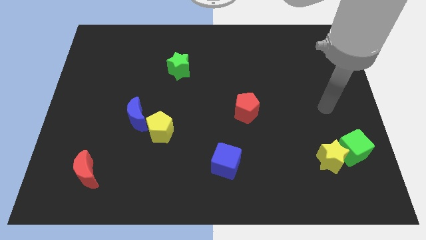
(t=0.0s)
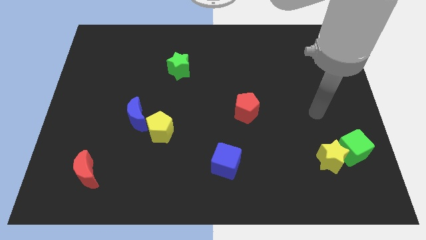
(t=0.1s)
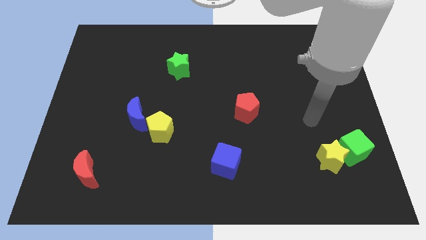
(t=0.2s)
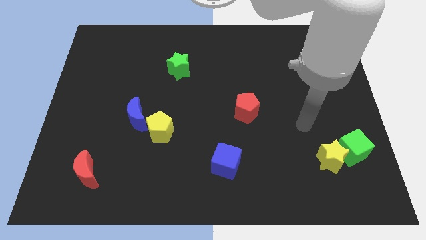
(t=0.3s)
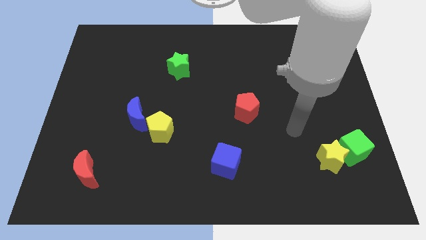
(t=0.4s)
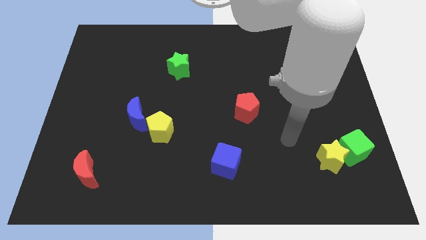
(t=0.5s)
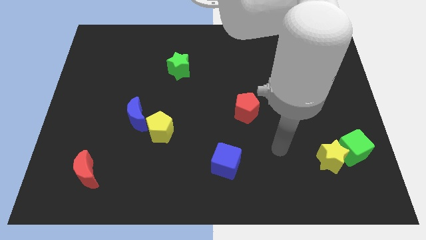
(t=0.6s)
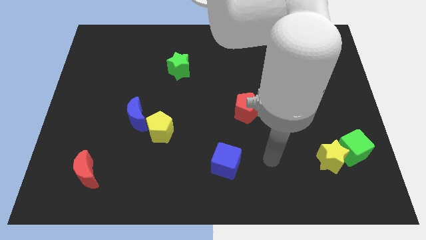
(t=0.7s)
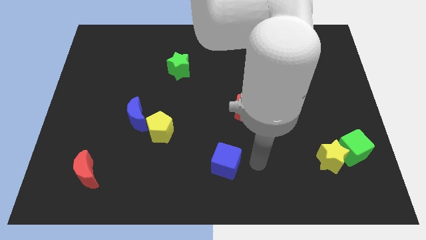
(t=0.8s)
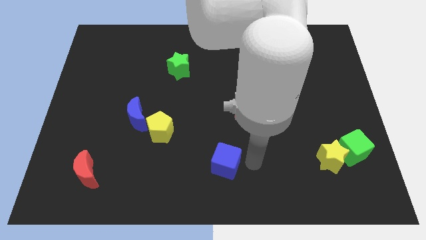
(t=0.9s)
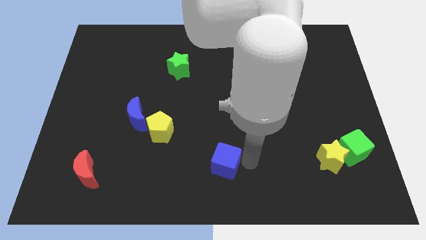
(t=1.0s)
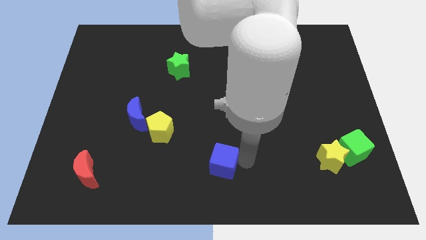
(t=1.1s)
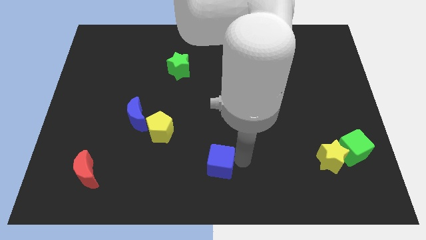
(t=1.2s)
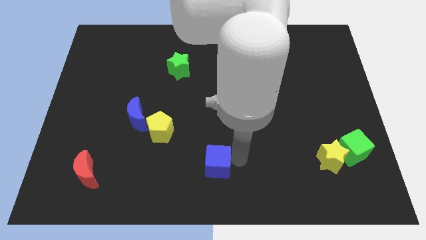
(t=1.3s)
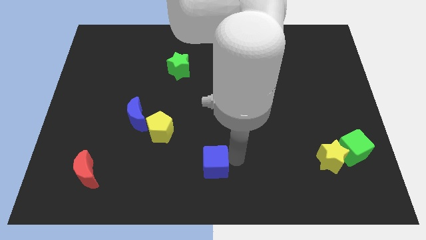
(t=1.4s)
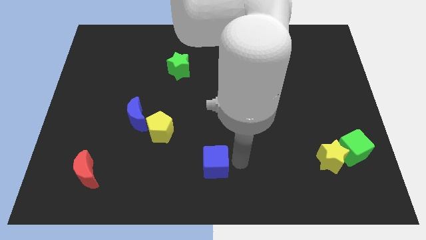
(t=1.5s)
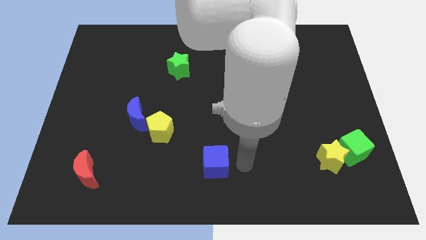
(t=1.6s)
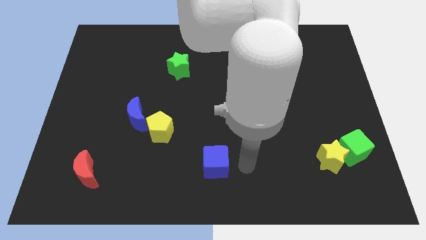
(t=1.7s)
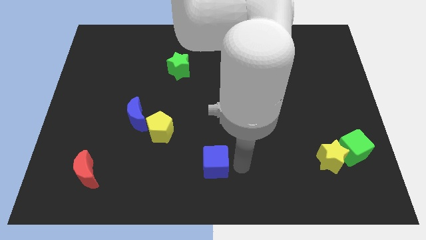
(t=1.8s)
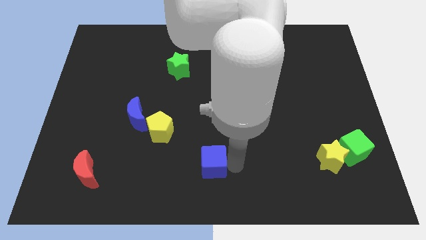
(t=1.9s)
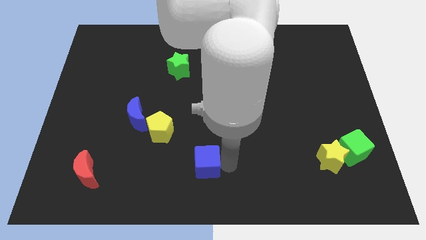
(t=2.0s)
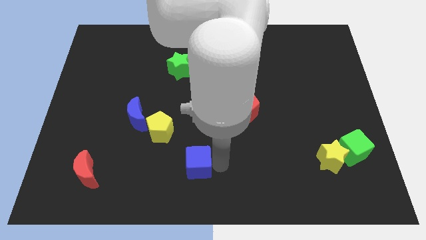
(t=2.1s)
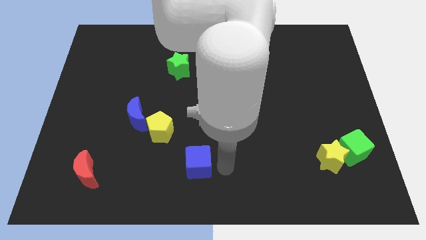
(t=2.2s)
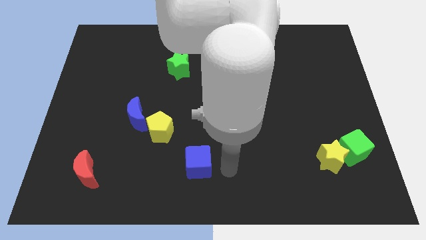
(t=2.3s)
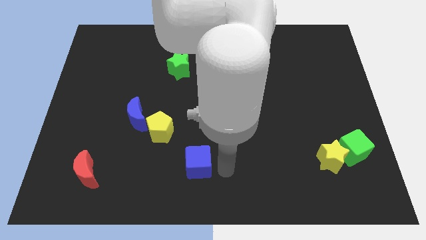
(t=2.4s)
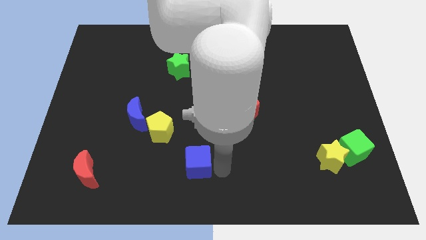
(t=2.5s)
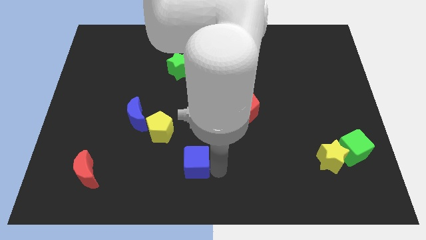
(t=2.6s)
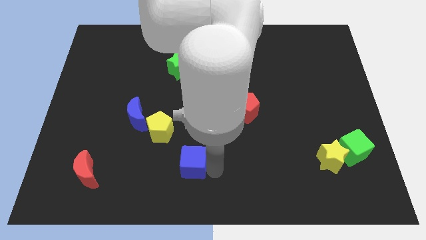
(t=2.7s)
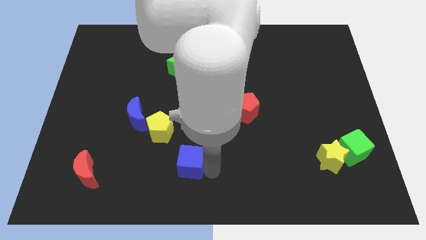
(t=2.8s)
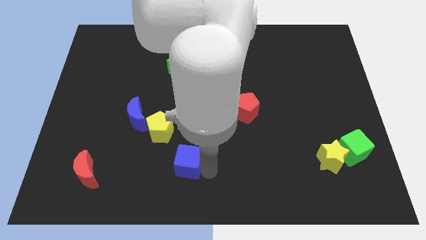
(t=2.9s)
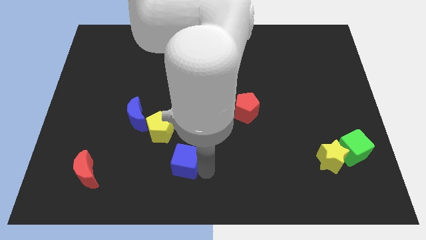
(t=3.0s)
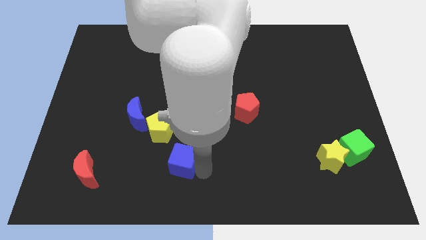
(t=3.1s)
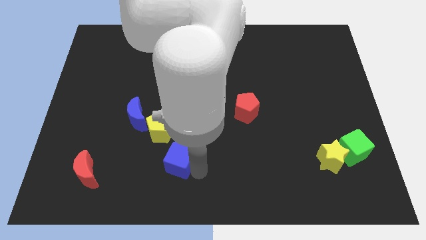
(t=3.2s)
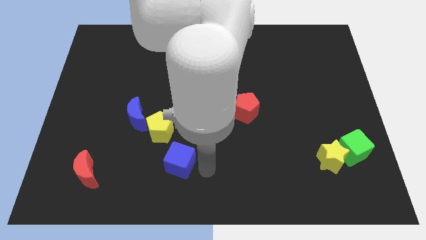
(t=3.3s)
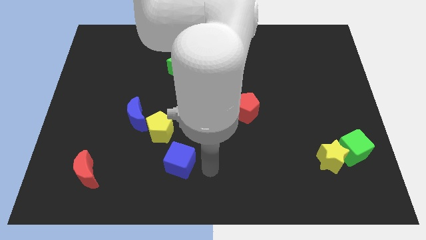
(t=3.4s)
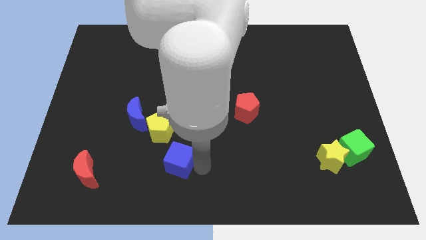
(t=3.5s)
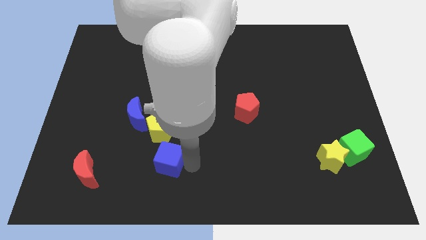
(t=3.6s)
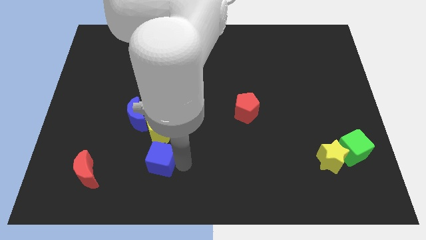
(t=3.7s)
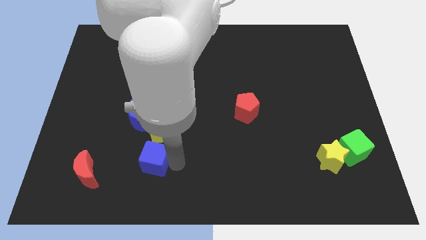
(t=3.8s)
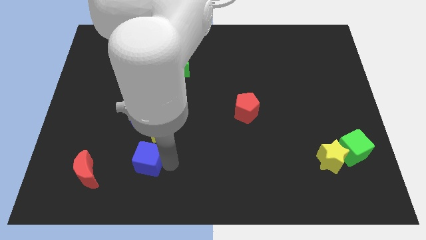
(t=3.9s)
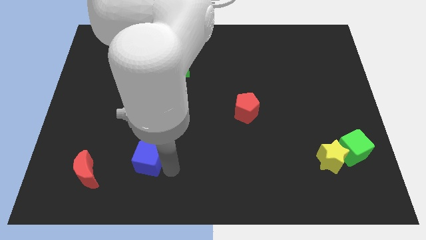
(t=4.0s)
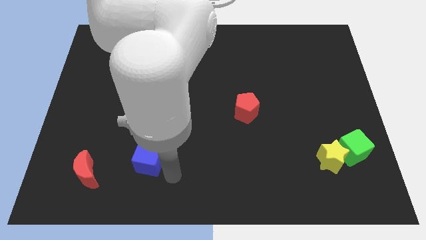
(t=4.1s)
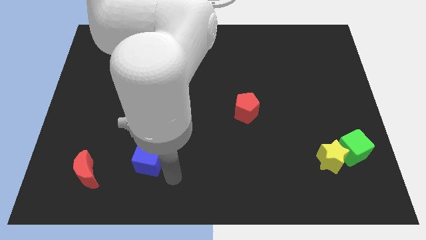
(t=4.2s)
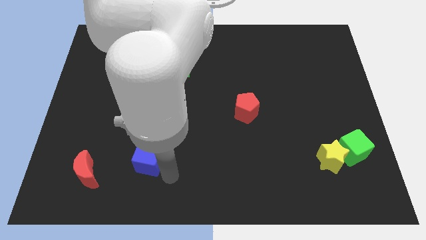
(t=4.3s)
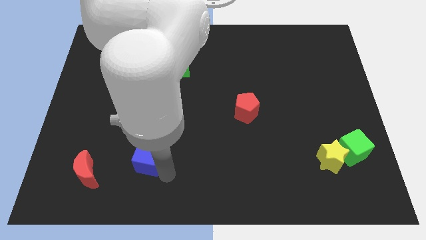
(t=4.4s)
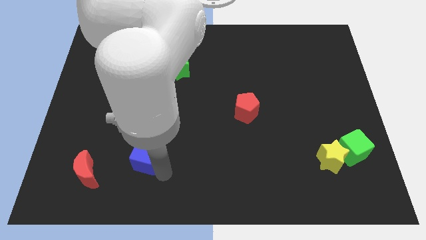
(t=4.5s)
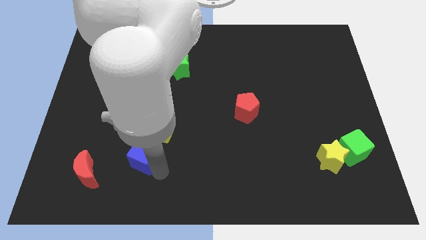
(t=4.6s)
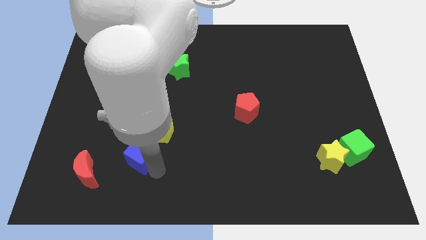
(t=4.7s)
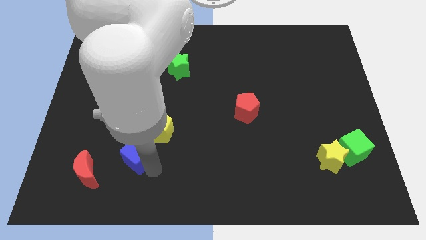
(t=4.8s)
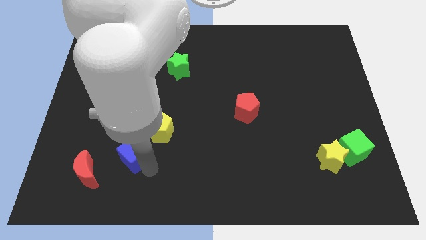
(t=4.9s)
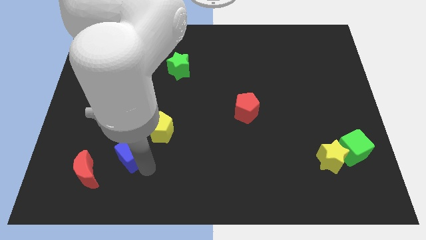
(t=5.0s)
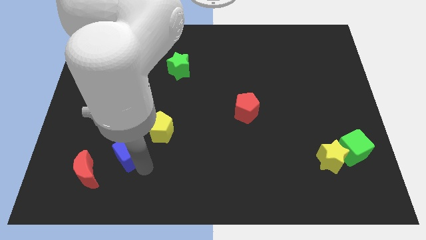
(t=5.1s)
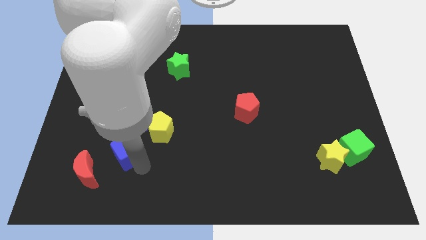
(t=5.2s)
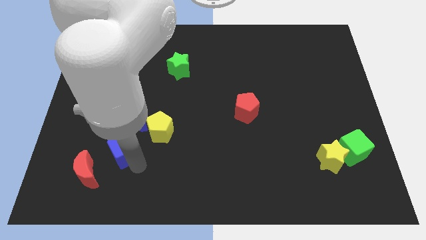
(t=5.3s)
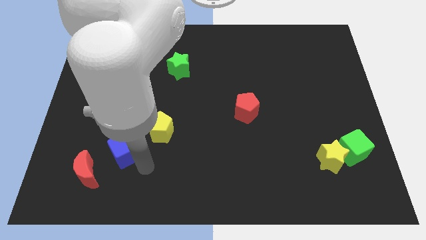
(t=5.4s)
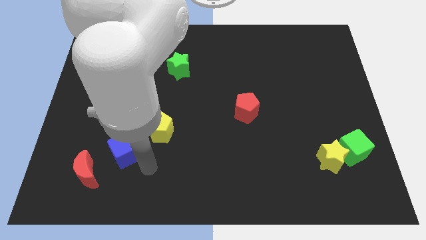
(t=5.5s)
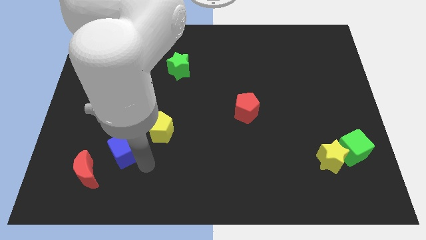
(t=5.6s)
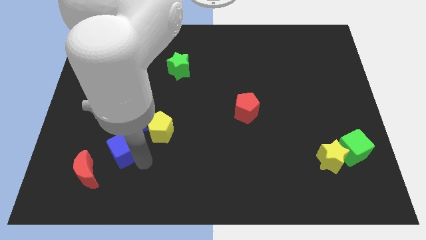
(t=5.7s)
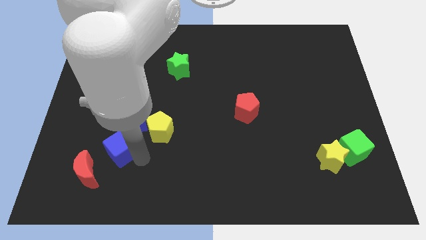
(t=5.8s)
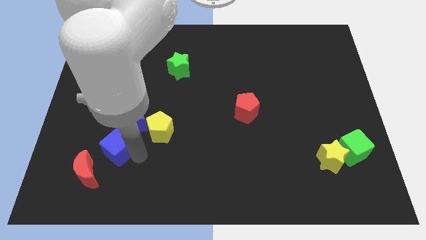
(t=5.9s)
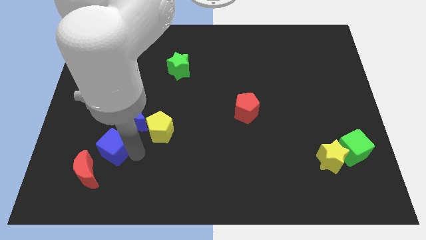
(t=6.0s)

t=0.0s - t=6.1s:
move the blue cube above the red moon

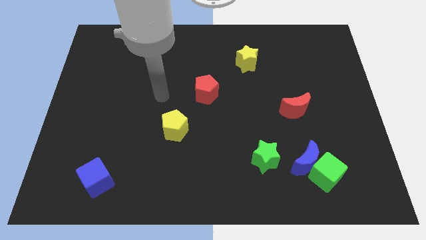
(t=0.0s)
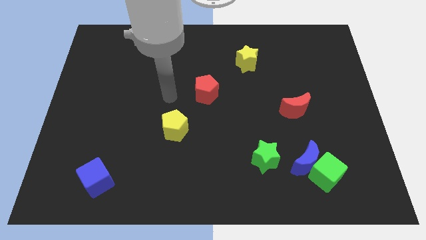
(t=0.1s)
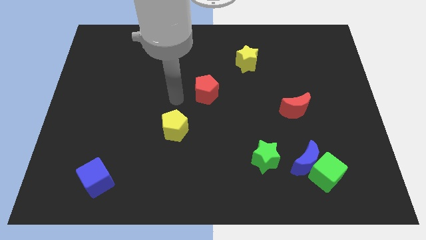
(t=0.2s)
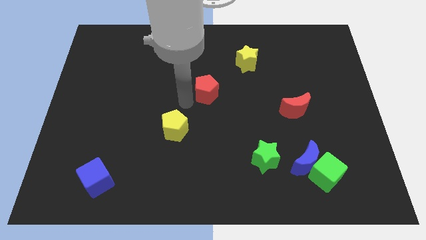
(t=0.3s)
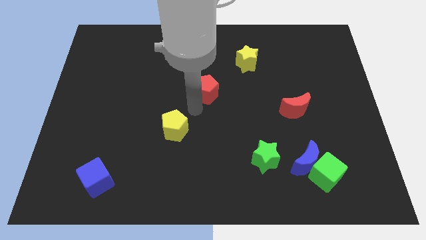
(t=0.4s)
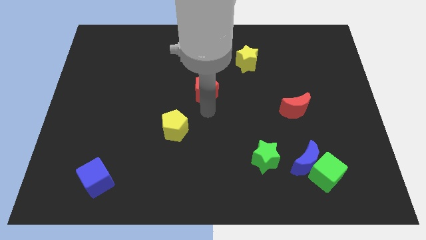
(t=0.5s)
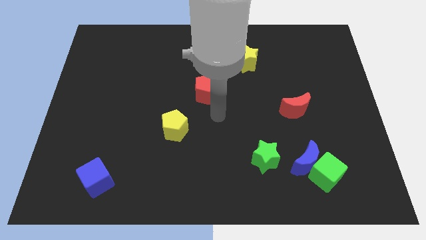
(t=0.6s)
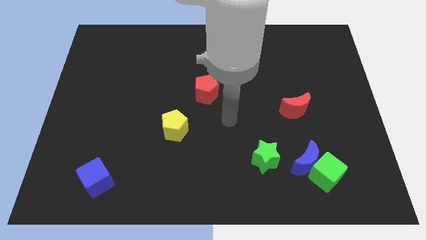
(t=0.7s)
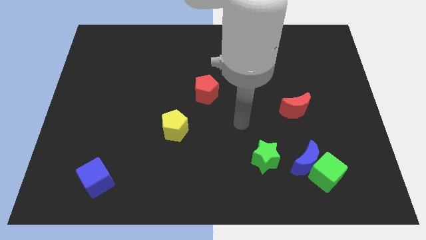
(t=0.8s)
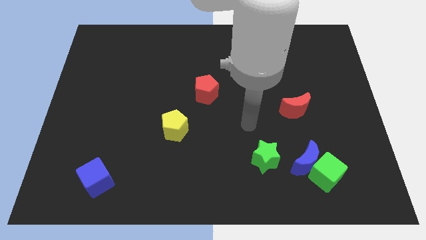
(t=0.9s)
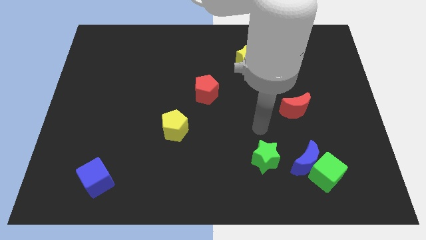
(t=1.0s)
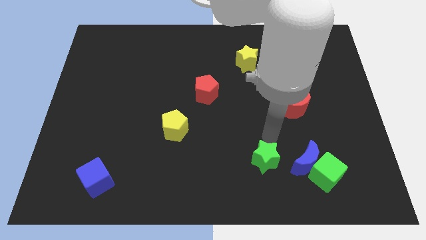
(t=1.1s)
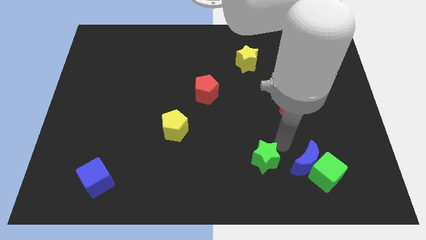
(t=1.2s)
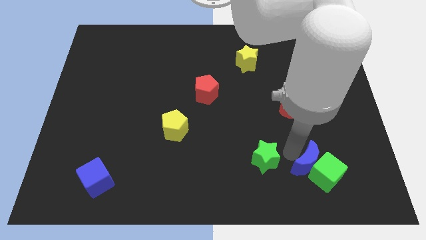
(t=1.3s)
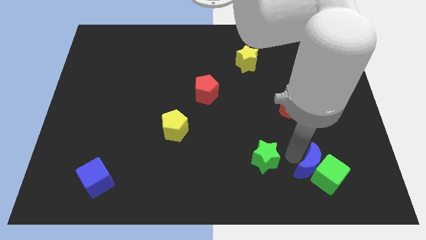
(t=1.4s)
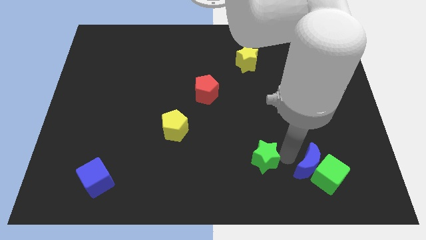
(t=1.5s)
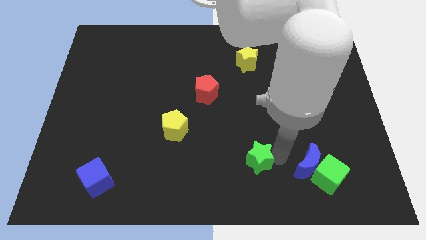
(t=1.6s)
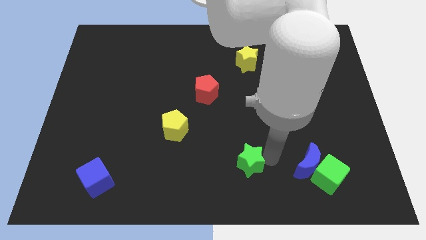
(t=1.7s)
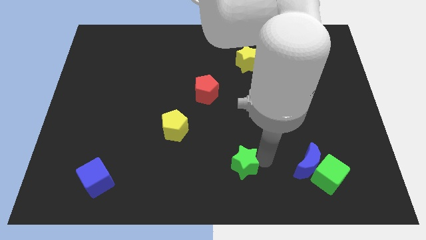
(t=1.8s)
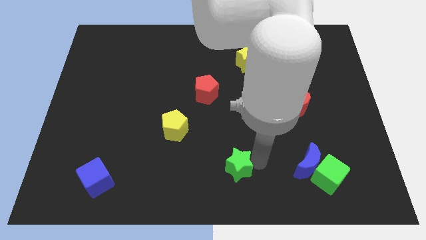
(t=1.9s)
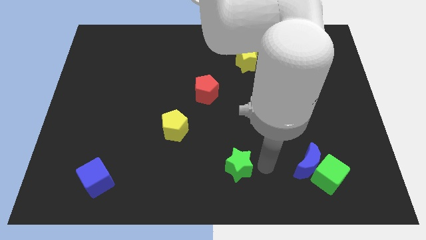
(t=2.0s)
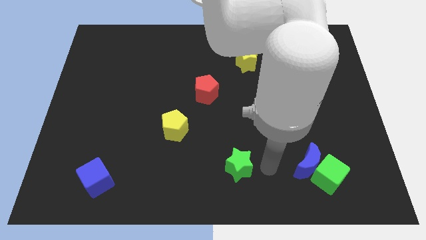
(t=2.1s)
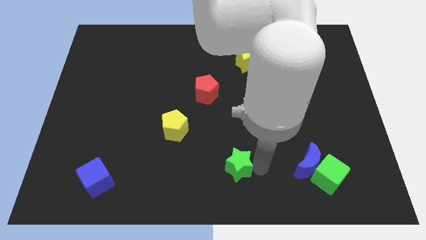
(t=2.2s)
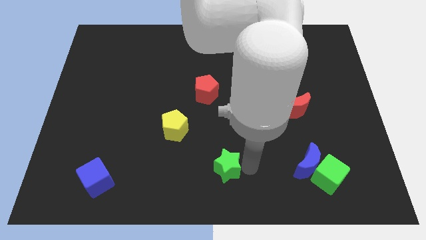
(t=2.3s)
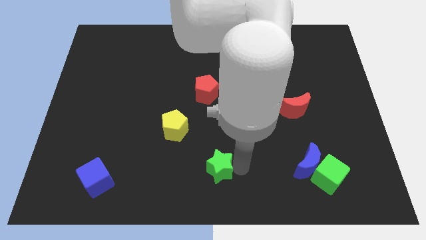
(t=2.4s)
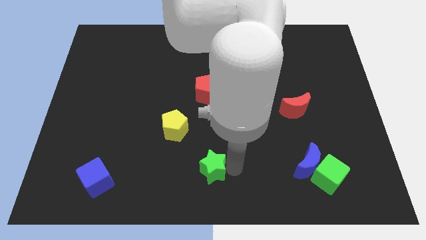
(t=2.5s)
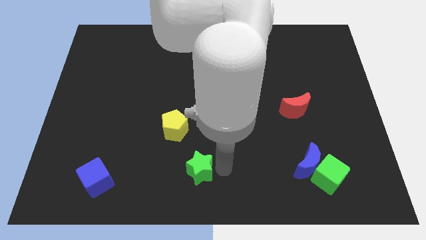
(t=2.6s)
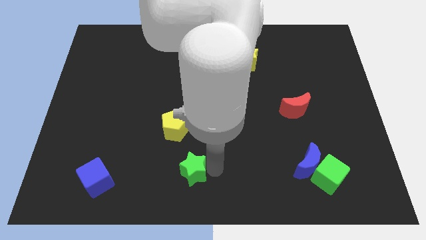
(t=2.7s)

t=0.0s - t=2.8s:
push the green star below the yellow pentagon
